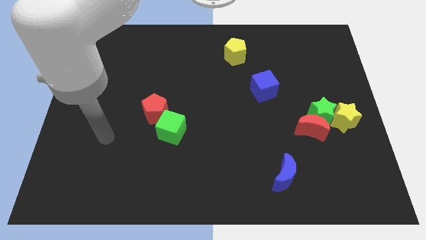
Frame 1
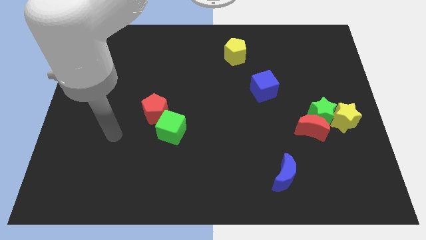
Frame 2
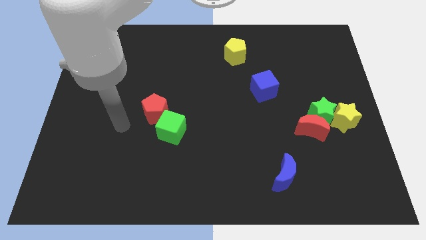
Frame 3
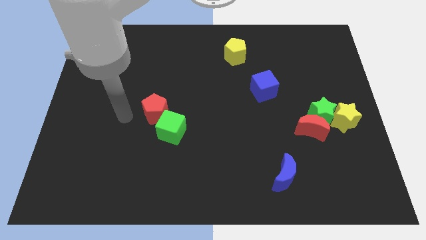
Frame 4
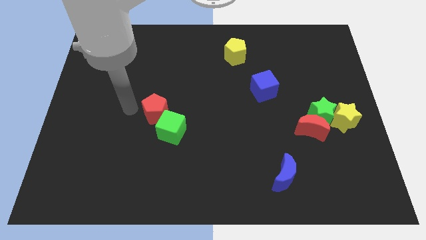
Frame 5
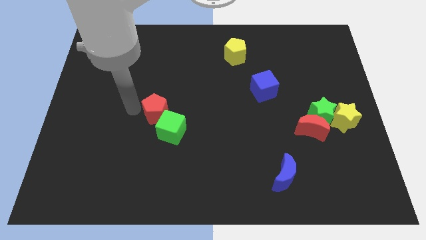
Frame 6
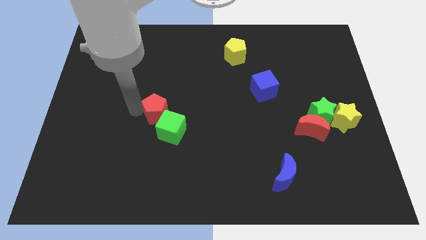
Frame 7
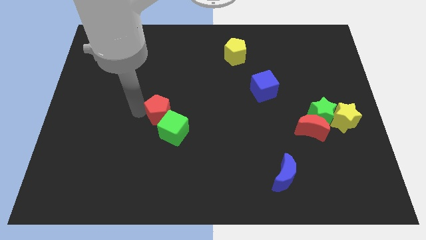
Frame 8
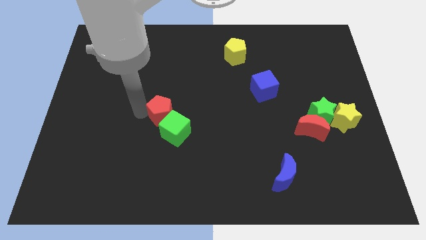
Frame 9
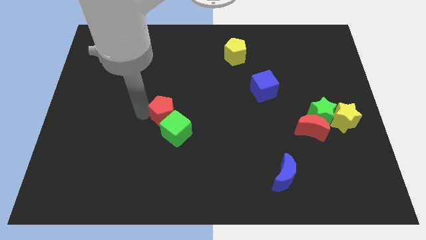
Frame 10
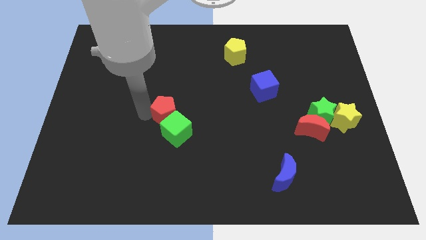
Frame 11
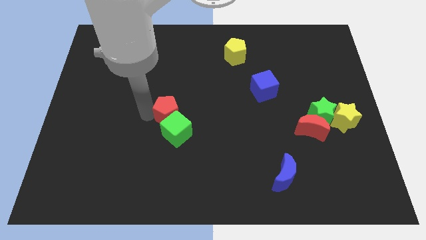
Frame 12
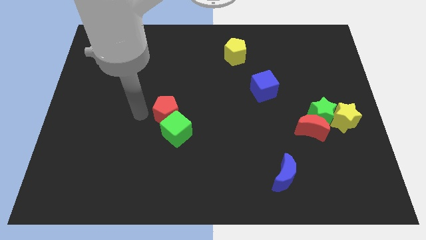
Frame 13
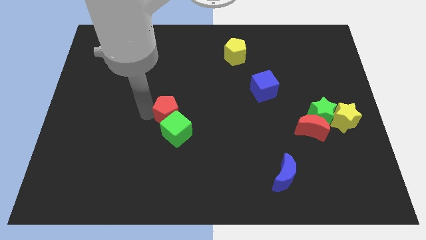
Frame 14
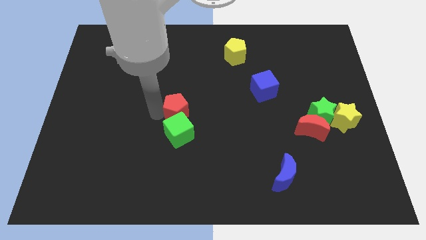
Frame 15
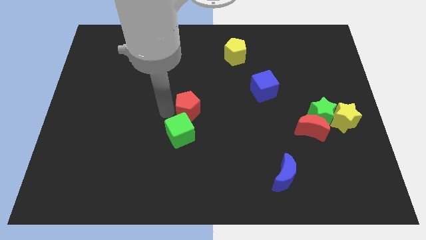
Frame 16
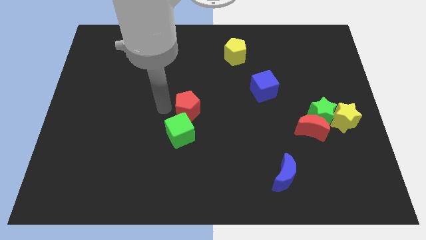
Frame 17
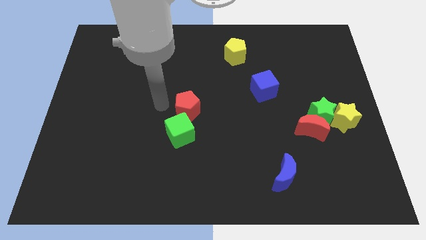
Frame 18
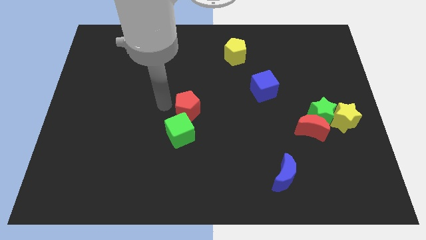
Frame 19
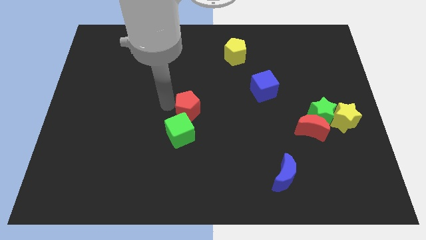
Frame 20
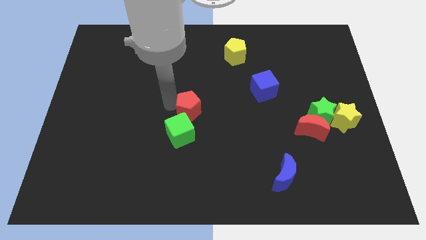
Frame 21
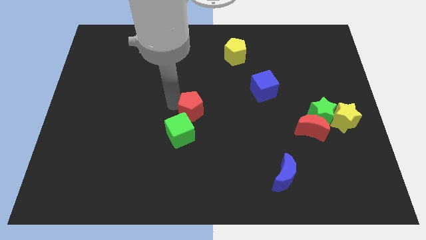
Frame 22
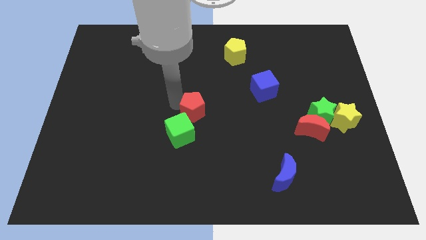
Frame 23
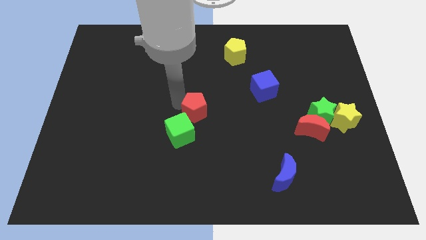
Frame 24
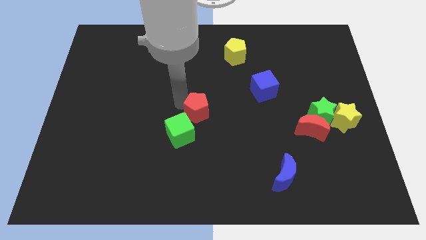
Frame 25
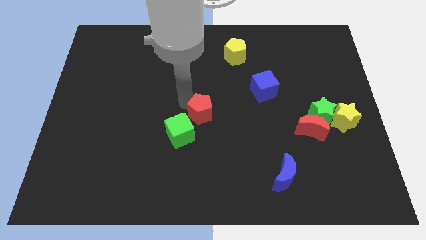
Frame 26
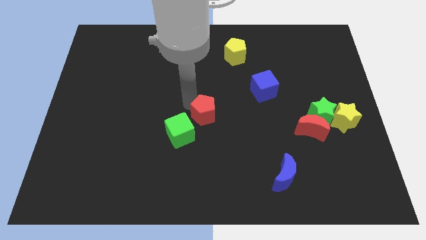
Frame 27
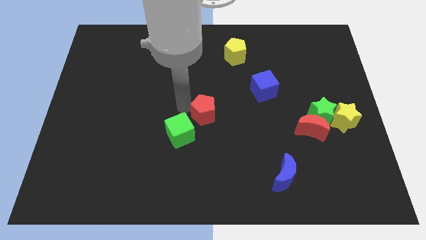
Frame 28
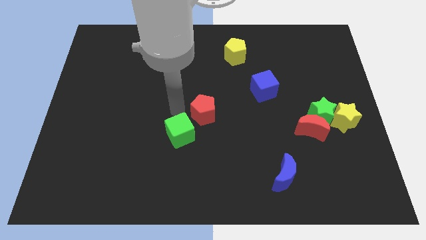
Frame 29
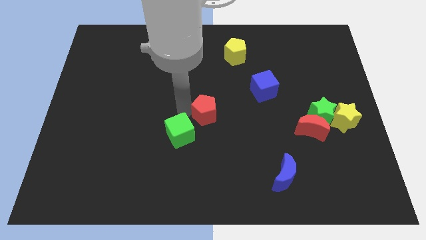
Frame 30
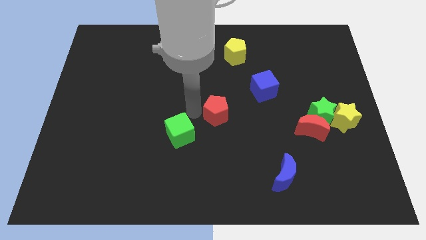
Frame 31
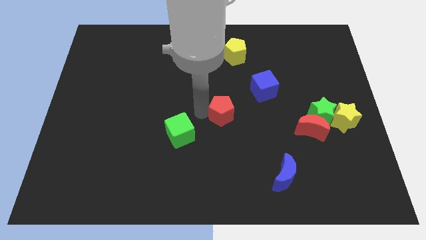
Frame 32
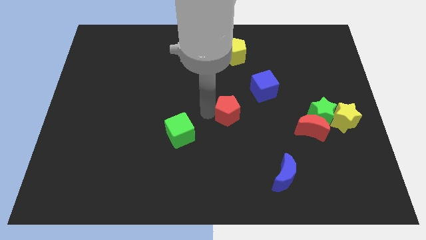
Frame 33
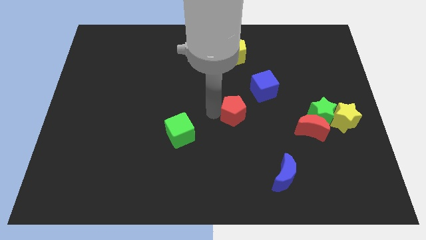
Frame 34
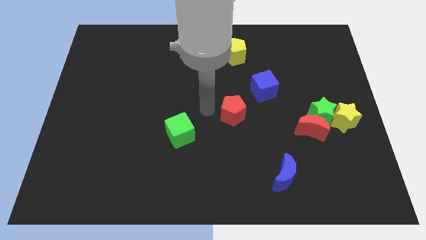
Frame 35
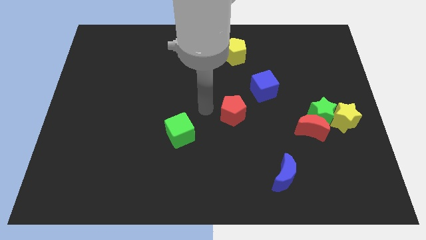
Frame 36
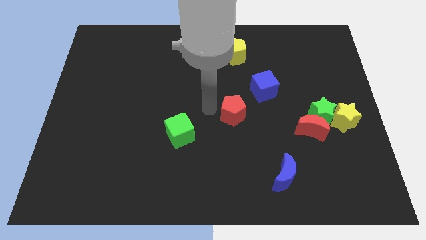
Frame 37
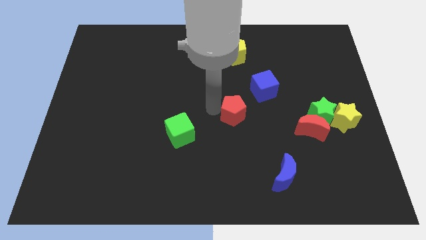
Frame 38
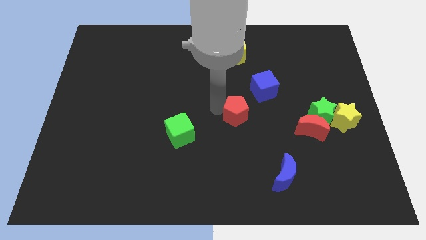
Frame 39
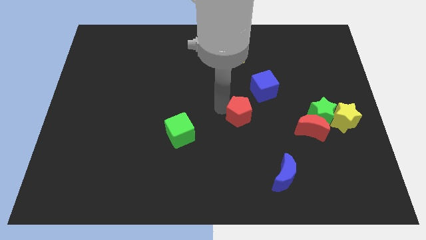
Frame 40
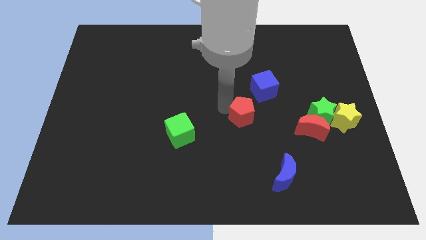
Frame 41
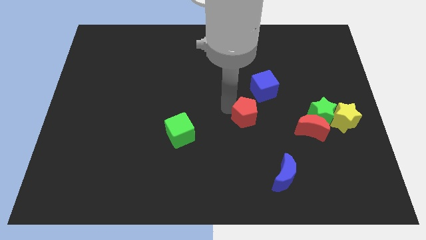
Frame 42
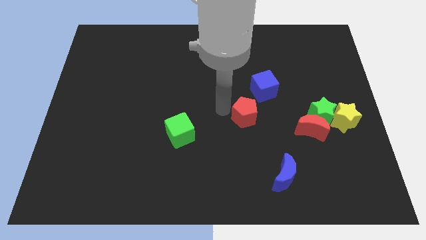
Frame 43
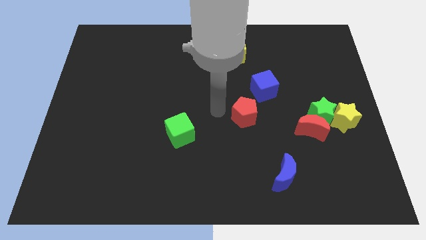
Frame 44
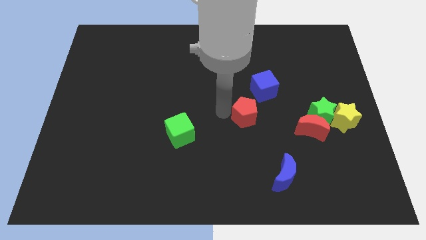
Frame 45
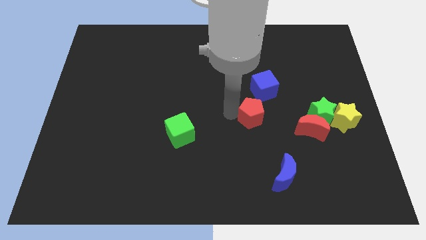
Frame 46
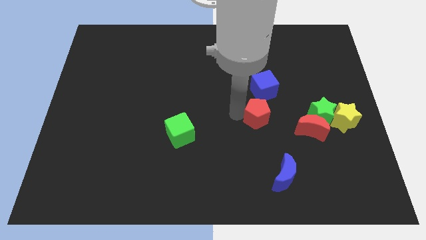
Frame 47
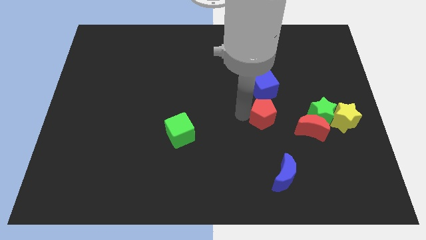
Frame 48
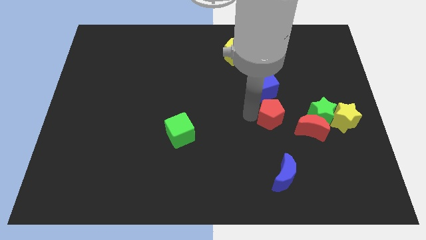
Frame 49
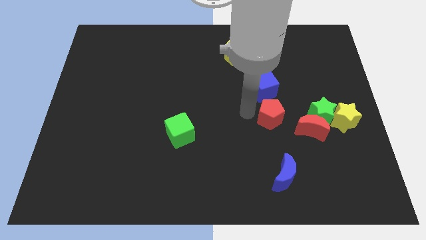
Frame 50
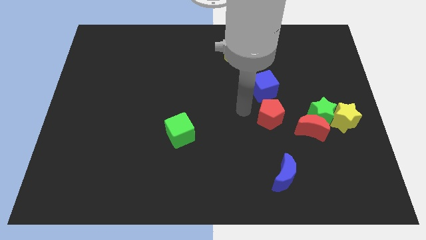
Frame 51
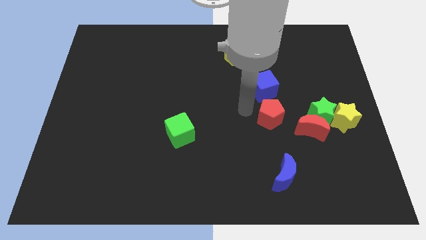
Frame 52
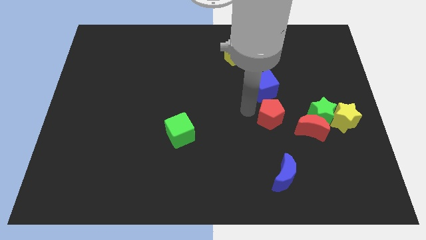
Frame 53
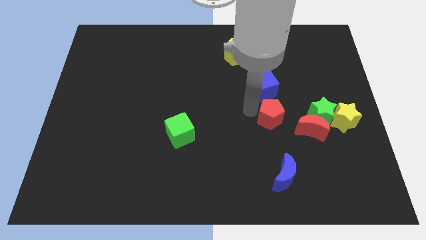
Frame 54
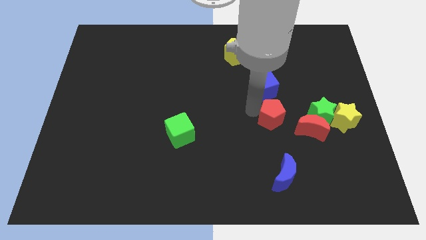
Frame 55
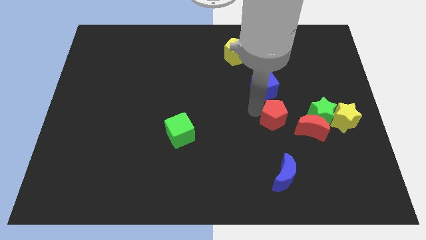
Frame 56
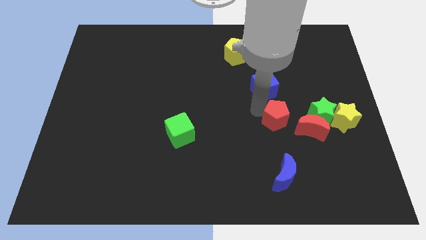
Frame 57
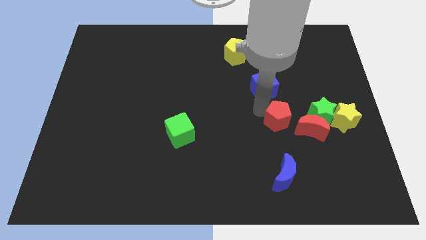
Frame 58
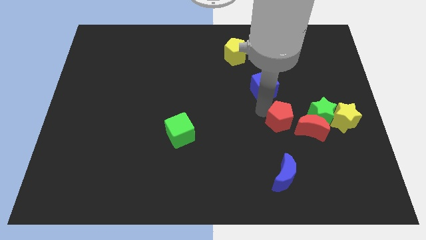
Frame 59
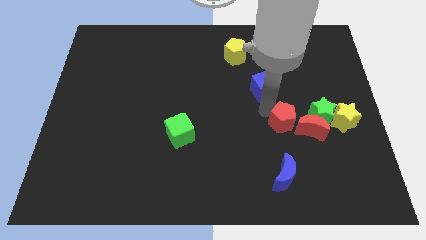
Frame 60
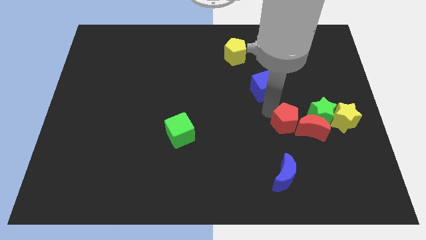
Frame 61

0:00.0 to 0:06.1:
put the red pentagon to the red moon

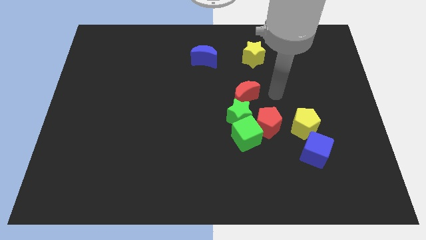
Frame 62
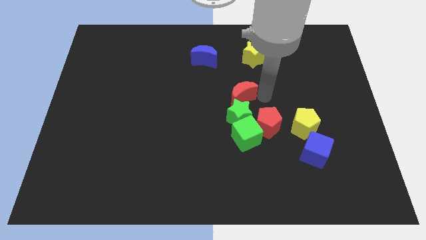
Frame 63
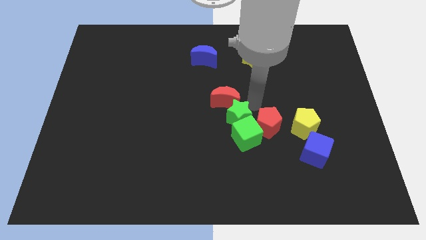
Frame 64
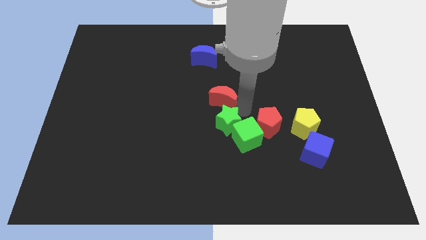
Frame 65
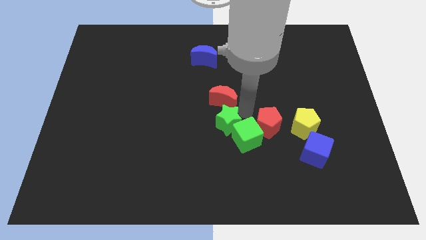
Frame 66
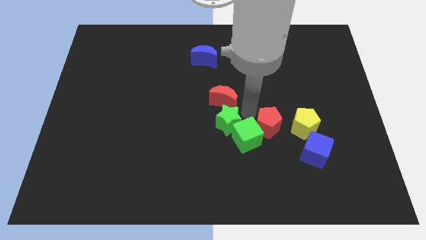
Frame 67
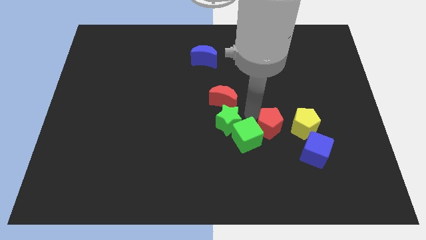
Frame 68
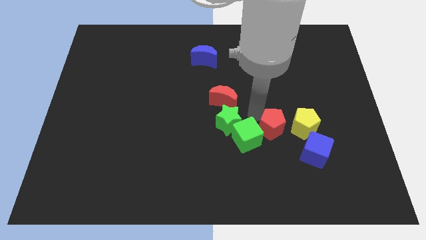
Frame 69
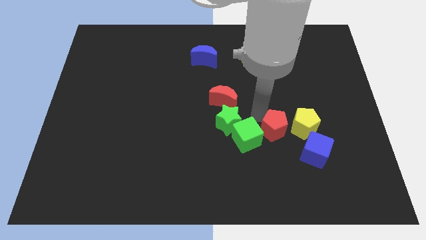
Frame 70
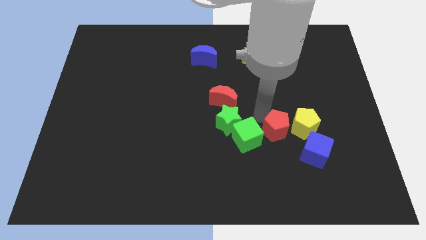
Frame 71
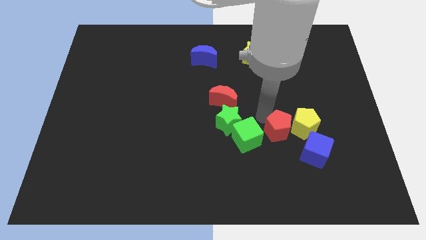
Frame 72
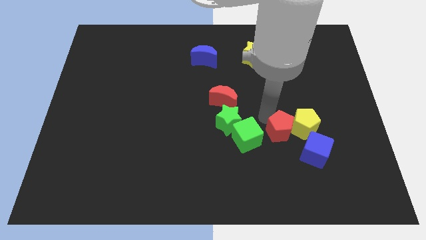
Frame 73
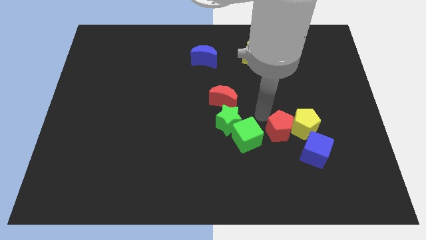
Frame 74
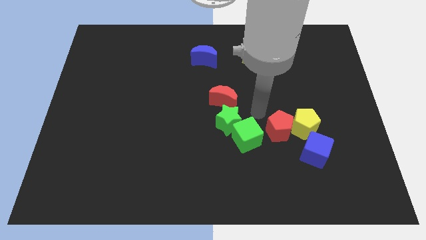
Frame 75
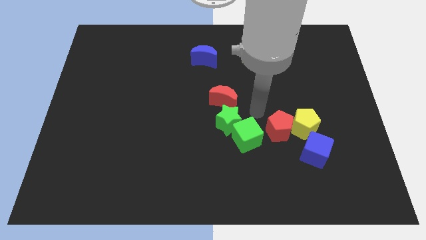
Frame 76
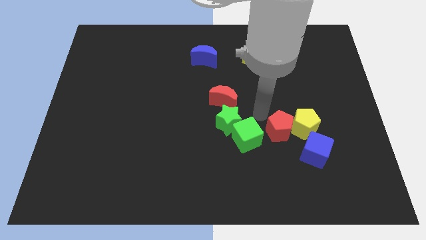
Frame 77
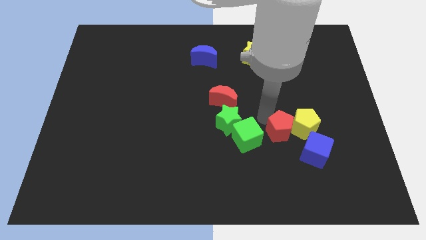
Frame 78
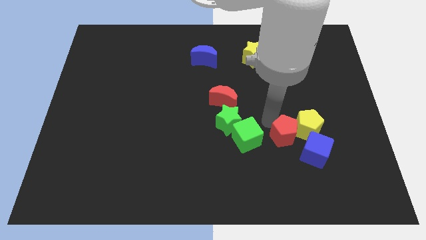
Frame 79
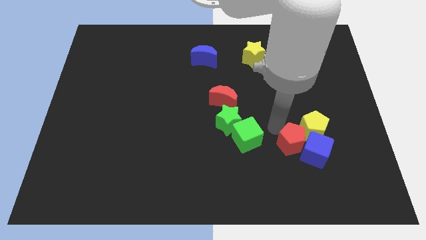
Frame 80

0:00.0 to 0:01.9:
push the red pentagon close to the blue cube
